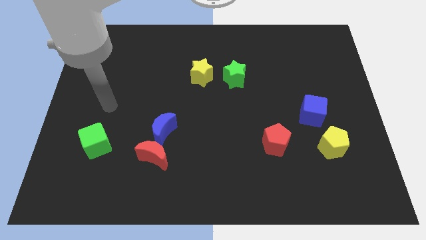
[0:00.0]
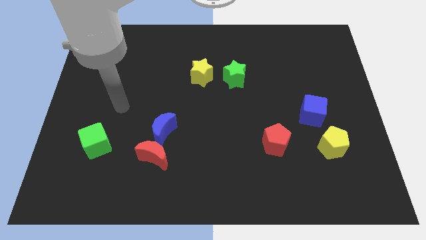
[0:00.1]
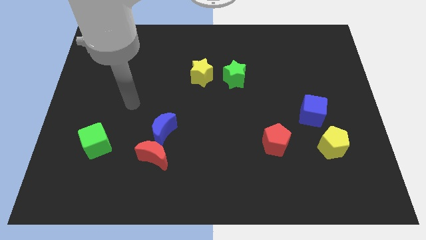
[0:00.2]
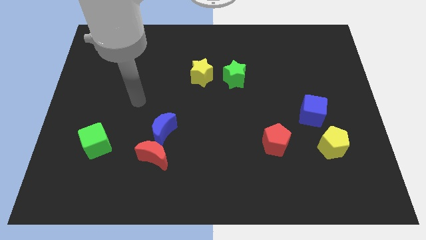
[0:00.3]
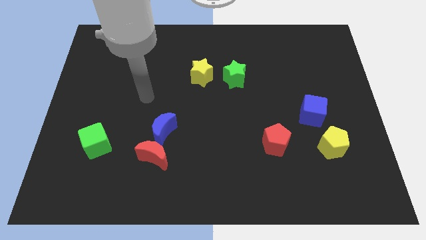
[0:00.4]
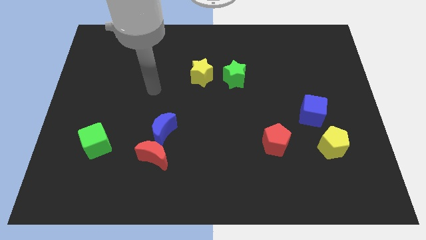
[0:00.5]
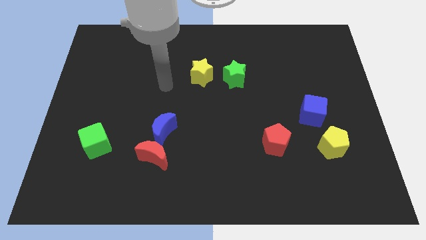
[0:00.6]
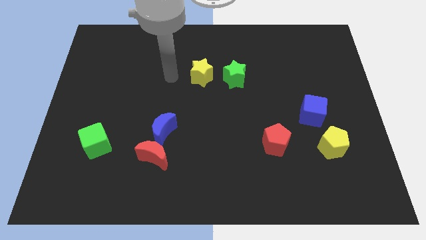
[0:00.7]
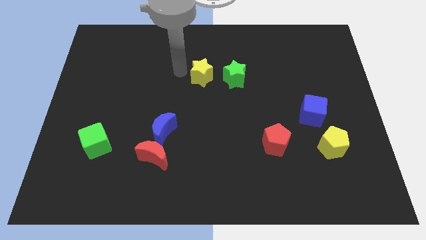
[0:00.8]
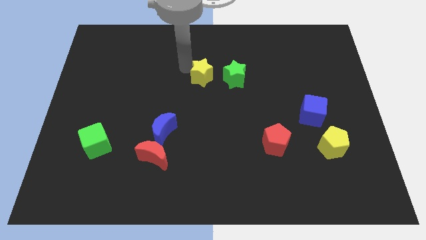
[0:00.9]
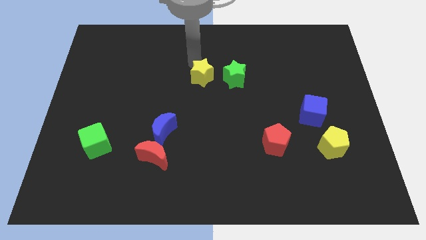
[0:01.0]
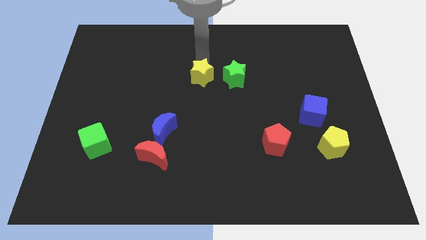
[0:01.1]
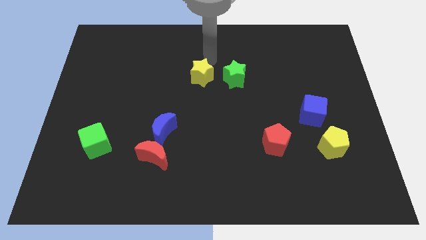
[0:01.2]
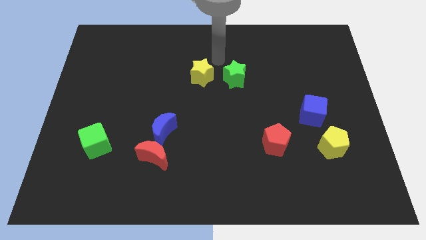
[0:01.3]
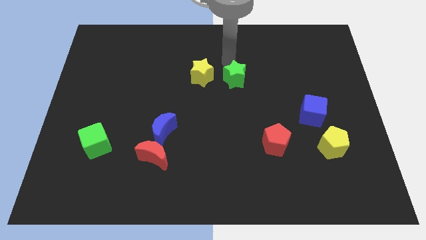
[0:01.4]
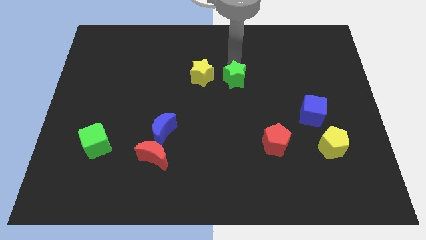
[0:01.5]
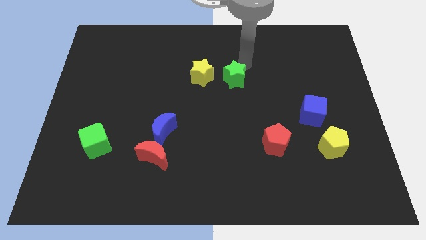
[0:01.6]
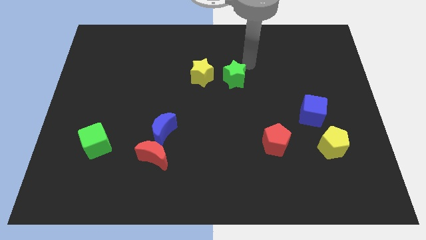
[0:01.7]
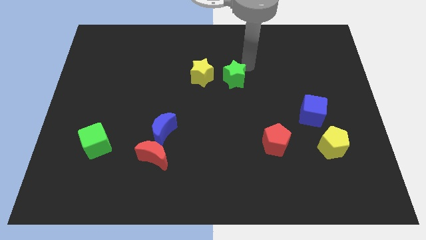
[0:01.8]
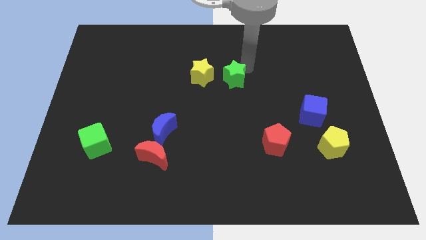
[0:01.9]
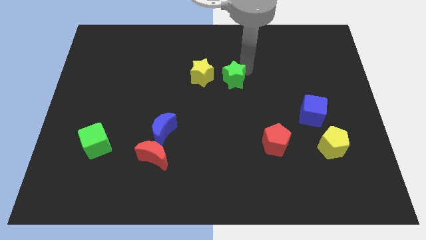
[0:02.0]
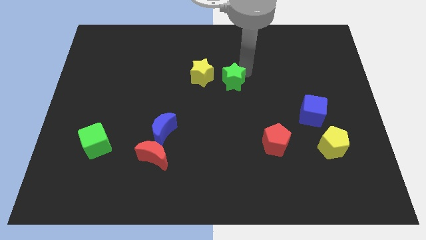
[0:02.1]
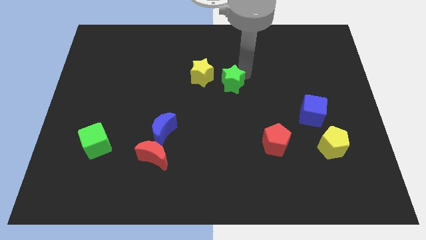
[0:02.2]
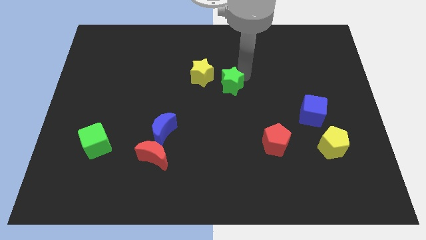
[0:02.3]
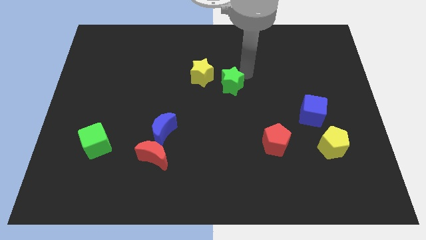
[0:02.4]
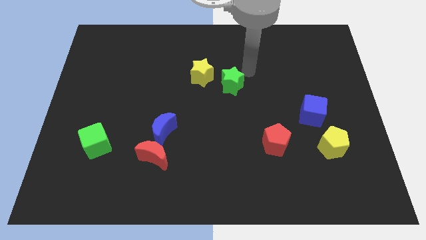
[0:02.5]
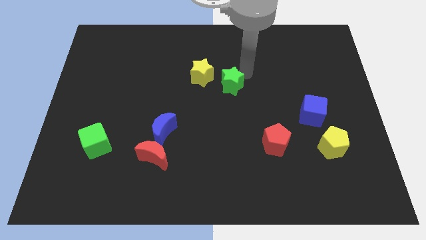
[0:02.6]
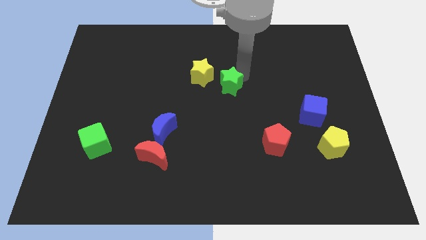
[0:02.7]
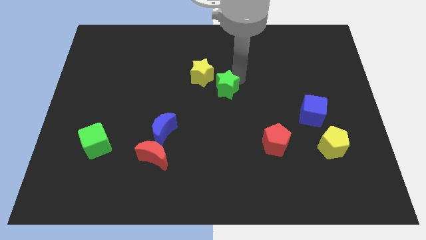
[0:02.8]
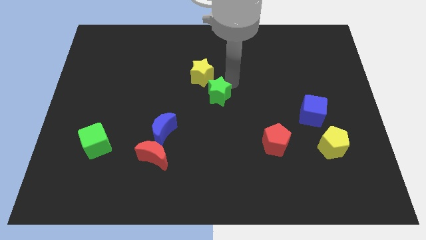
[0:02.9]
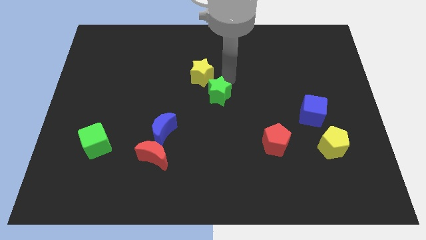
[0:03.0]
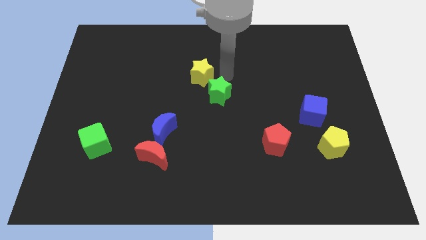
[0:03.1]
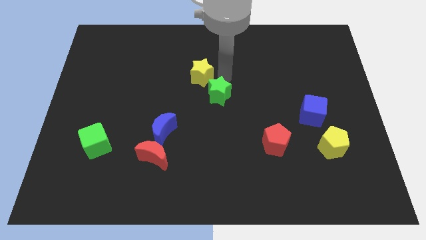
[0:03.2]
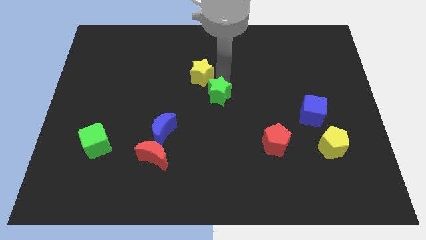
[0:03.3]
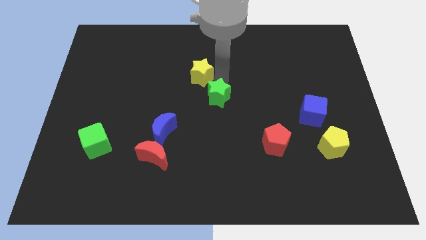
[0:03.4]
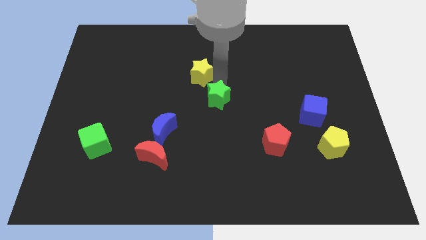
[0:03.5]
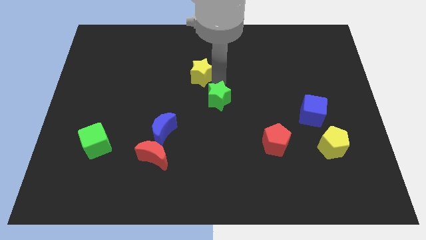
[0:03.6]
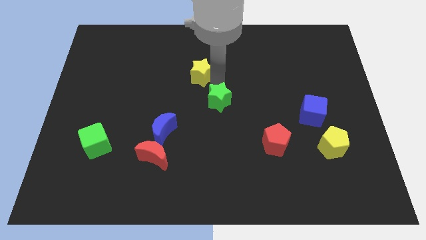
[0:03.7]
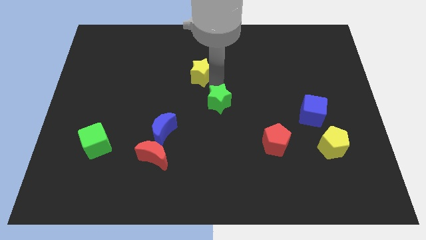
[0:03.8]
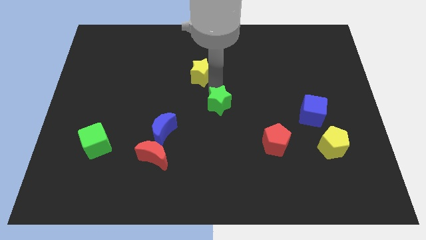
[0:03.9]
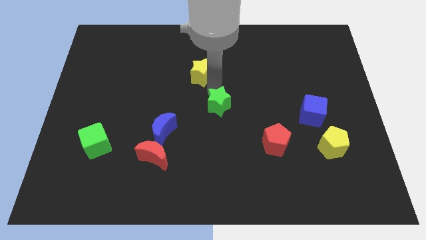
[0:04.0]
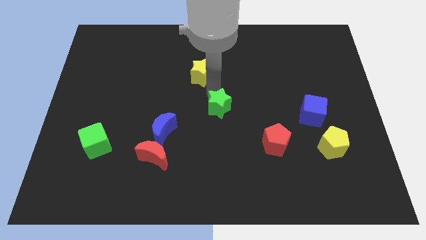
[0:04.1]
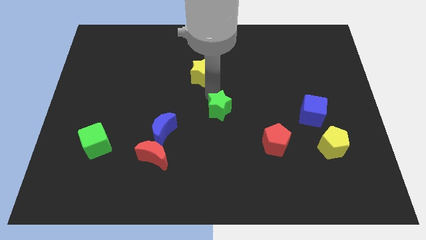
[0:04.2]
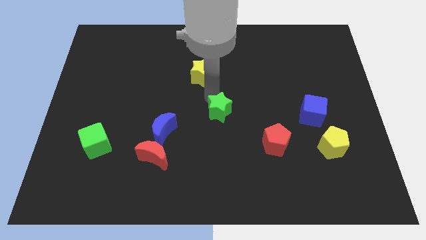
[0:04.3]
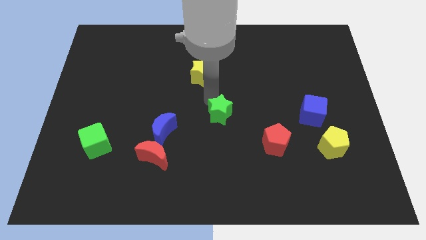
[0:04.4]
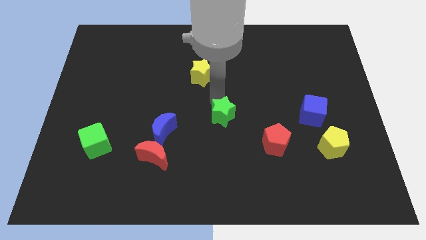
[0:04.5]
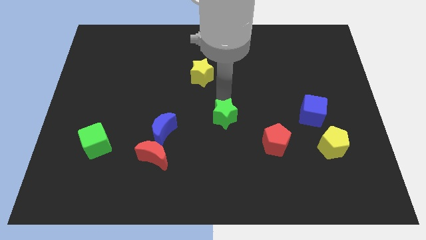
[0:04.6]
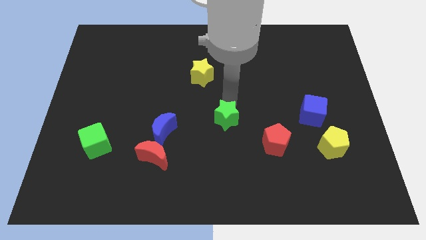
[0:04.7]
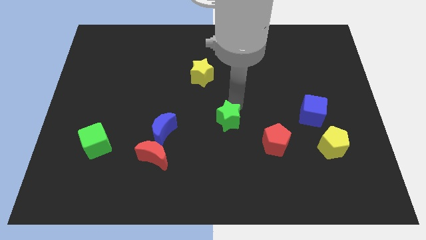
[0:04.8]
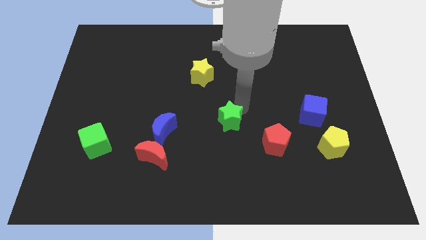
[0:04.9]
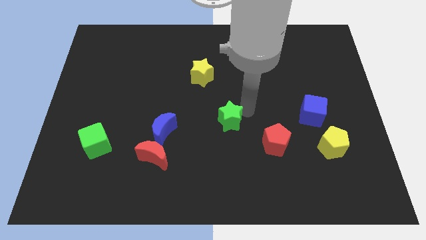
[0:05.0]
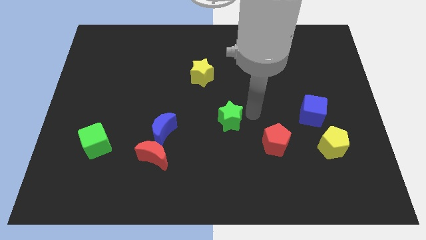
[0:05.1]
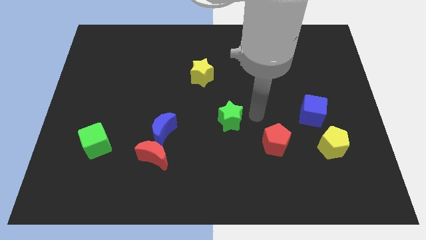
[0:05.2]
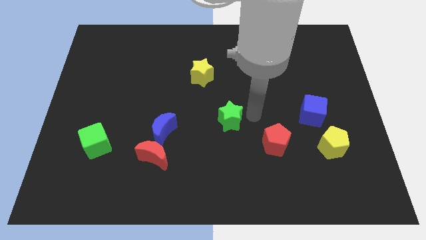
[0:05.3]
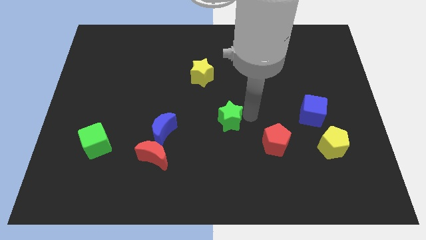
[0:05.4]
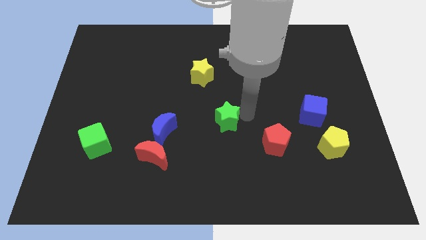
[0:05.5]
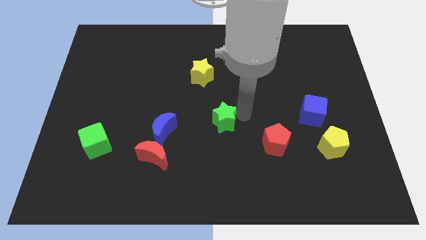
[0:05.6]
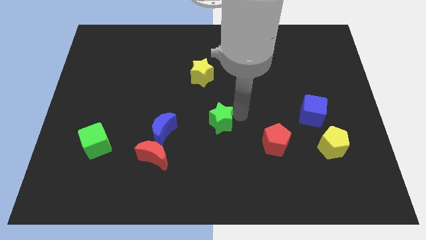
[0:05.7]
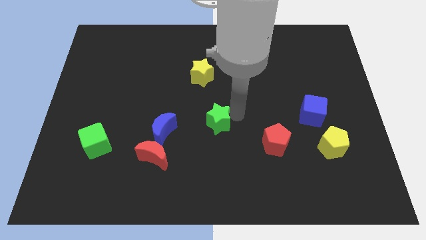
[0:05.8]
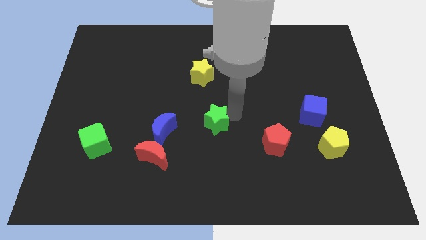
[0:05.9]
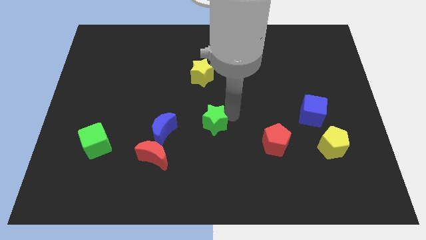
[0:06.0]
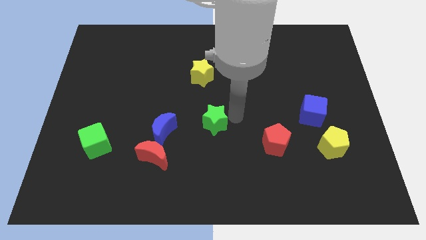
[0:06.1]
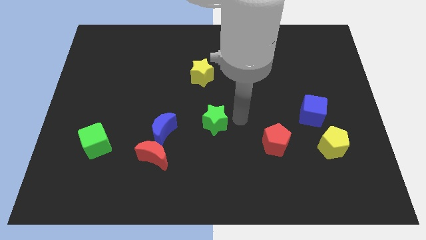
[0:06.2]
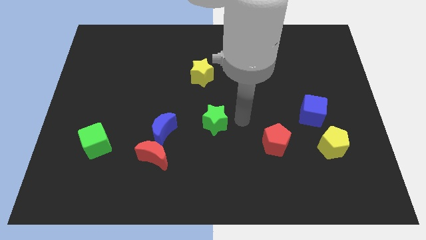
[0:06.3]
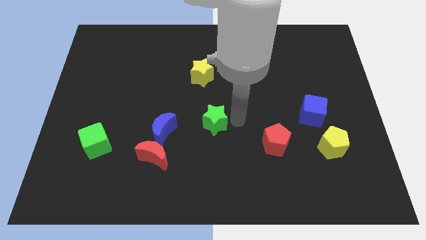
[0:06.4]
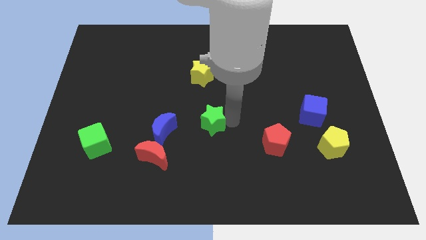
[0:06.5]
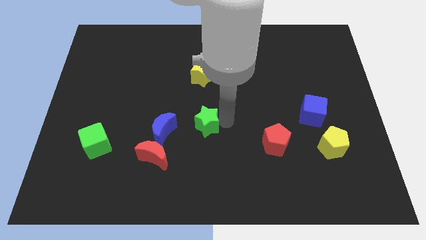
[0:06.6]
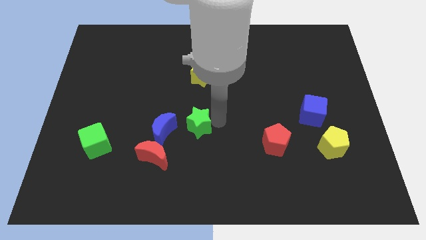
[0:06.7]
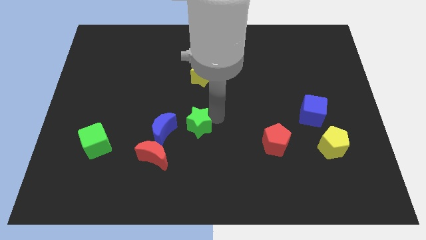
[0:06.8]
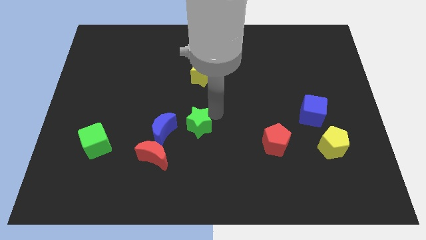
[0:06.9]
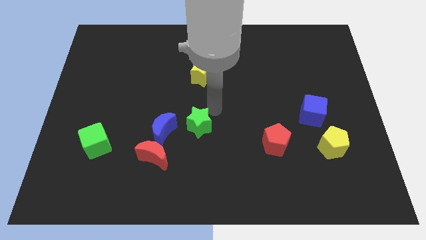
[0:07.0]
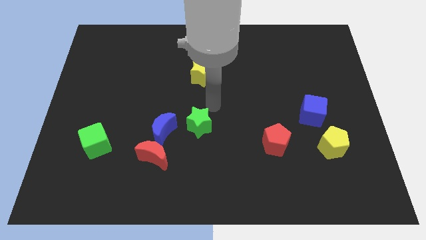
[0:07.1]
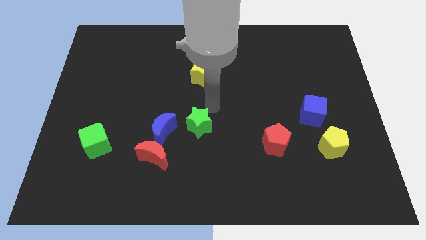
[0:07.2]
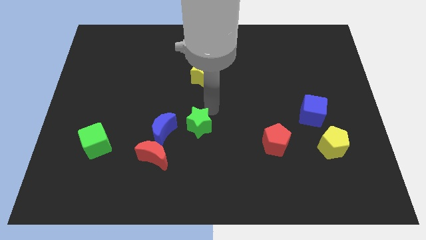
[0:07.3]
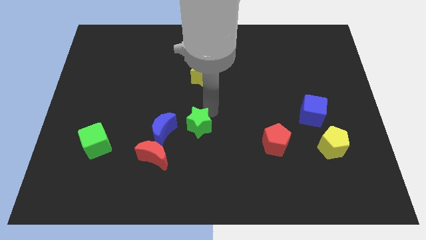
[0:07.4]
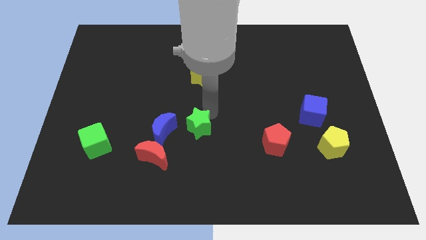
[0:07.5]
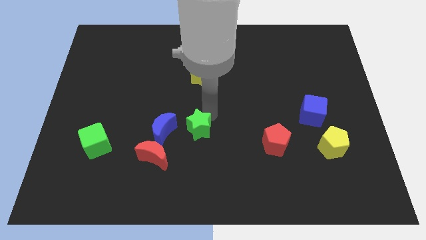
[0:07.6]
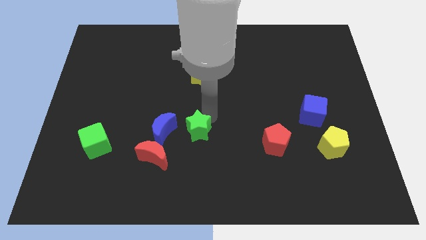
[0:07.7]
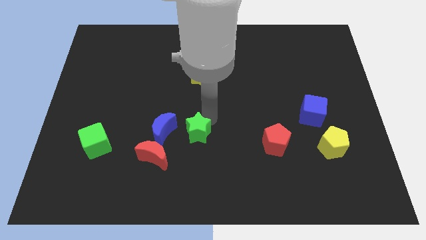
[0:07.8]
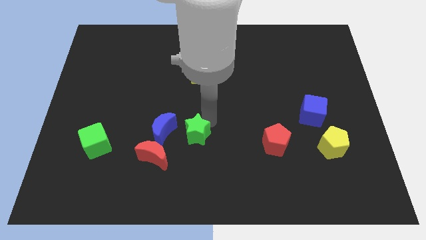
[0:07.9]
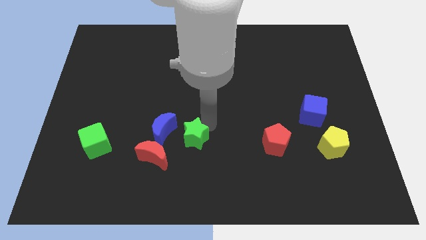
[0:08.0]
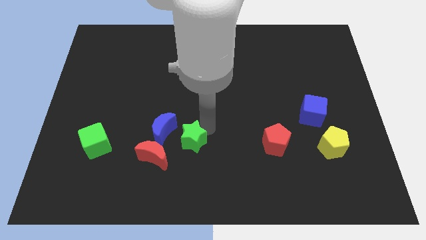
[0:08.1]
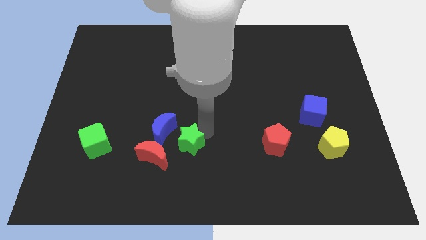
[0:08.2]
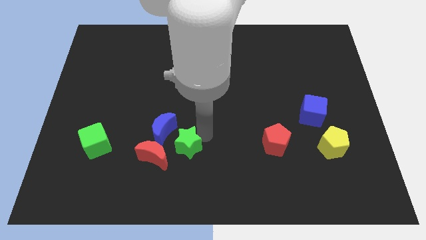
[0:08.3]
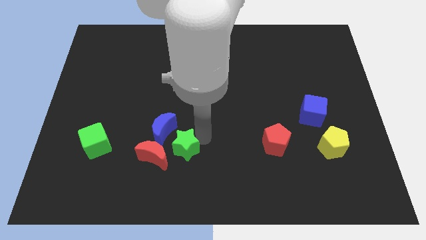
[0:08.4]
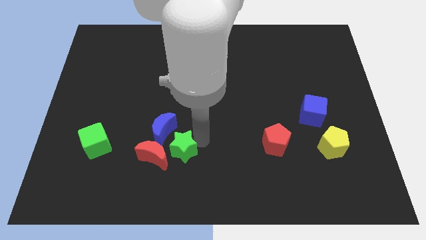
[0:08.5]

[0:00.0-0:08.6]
slide the green star towards the red moon
